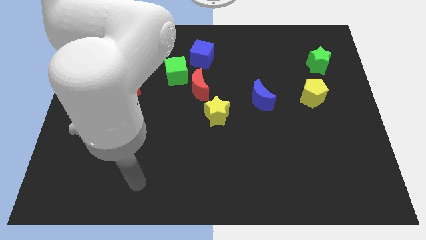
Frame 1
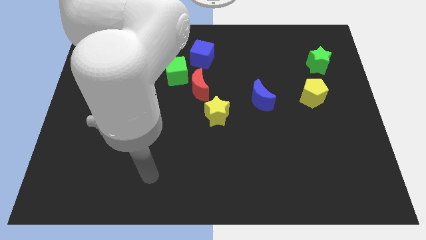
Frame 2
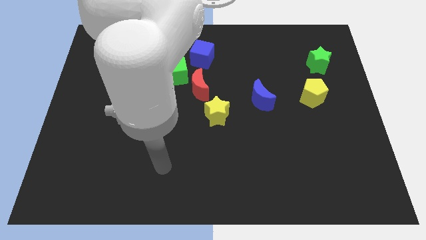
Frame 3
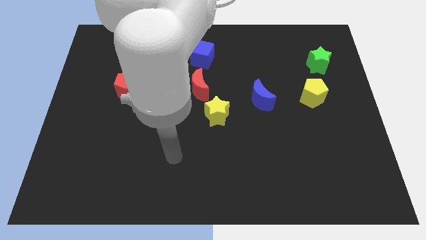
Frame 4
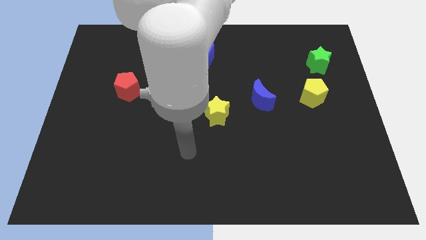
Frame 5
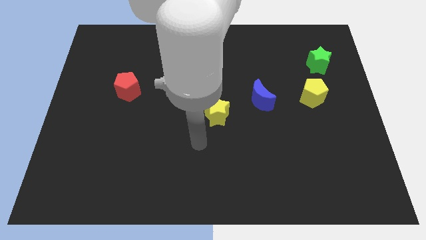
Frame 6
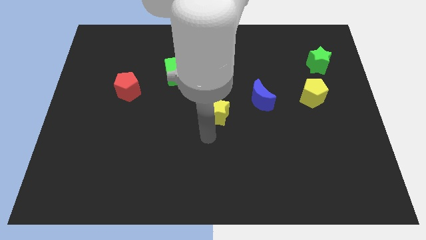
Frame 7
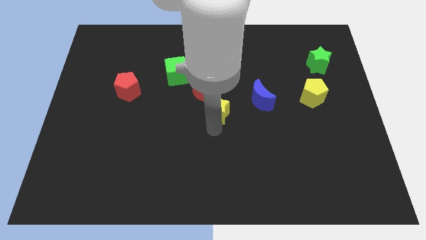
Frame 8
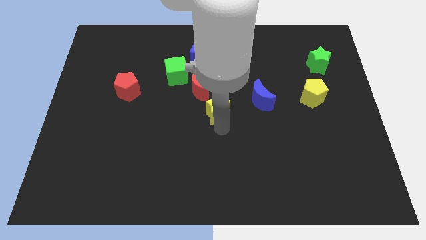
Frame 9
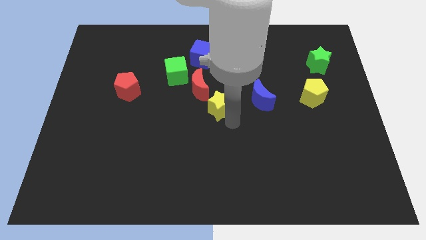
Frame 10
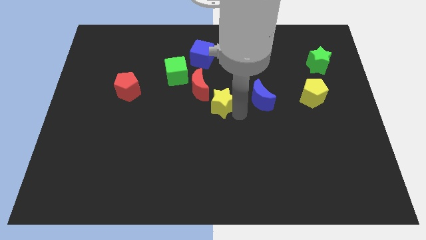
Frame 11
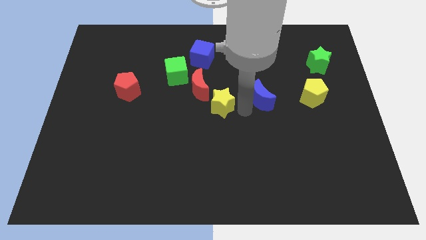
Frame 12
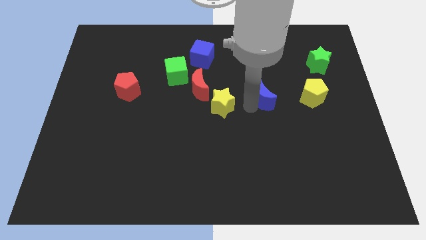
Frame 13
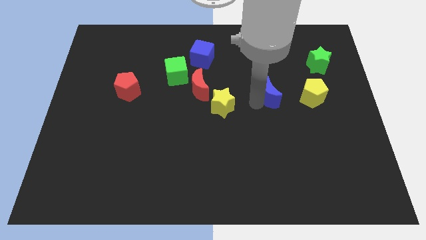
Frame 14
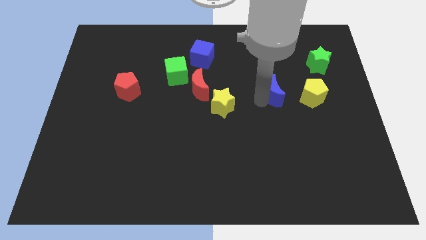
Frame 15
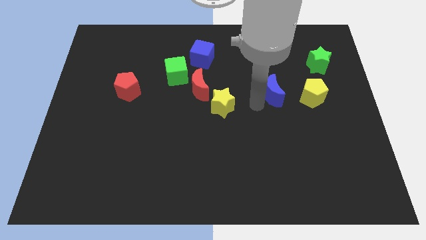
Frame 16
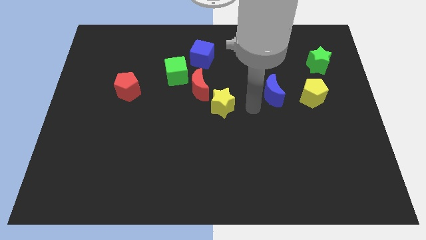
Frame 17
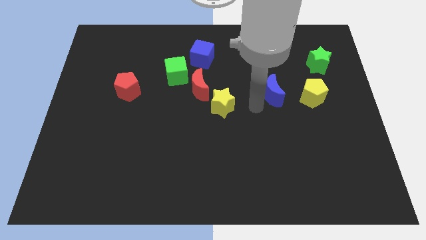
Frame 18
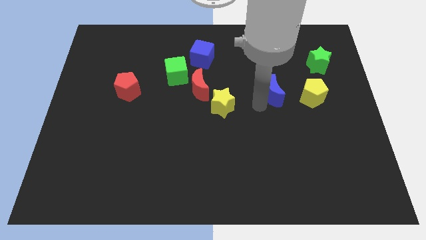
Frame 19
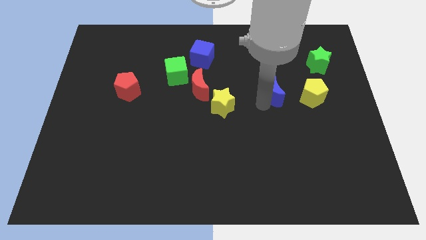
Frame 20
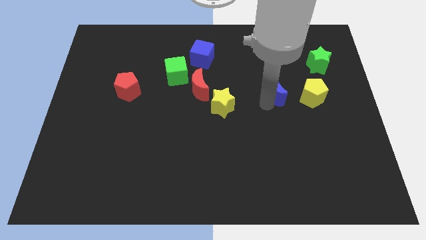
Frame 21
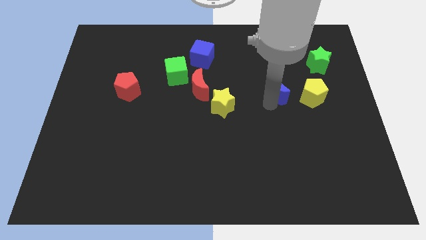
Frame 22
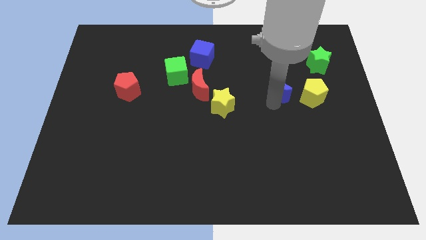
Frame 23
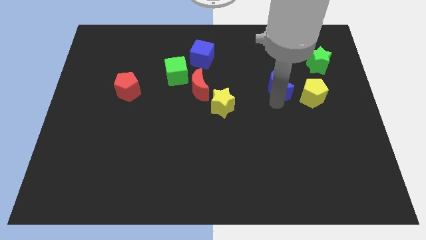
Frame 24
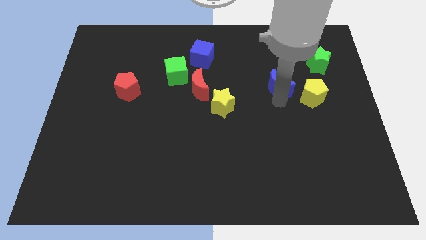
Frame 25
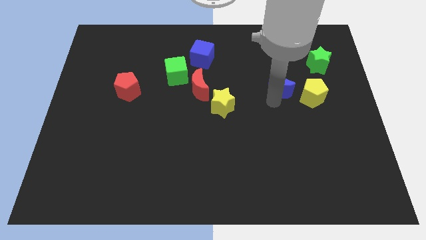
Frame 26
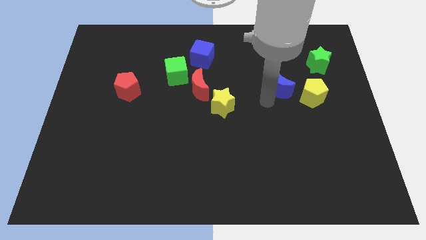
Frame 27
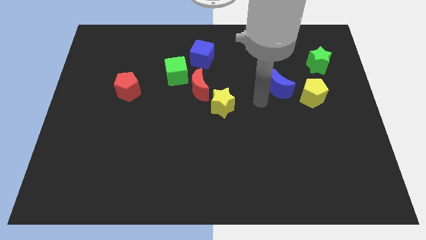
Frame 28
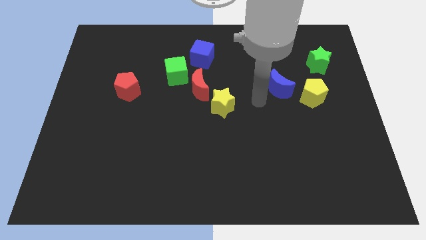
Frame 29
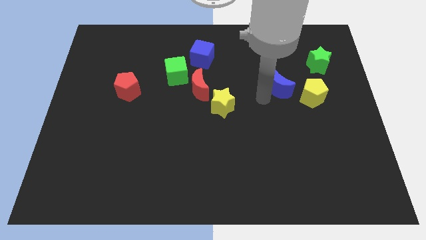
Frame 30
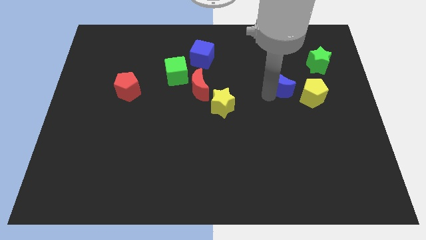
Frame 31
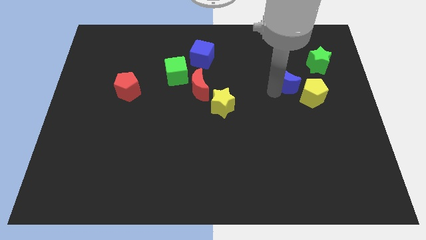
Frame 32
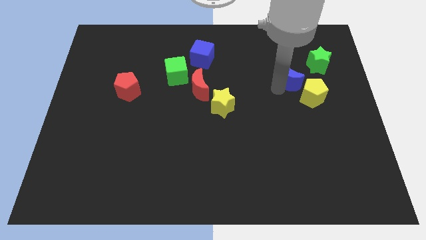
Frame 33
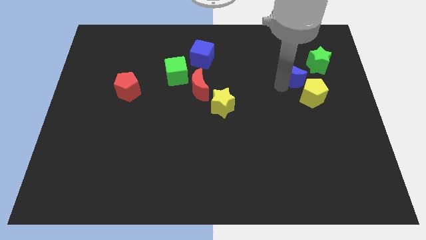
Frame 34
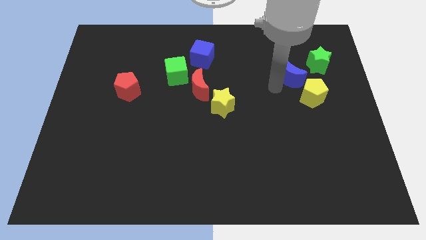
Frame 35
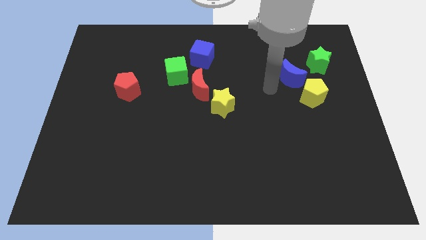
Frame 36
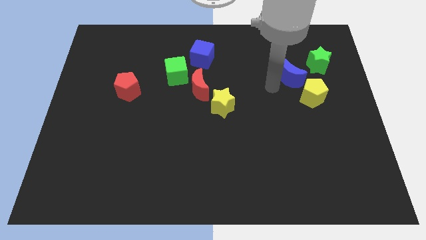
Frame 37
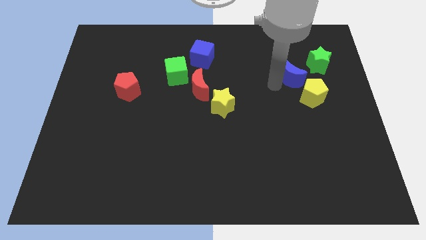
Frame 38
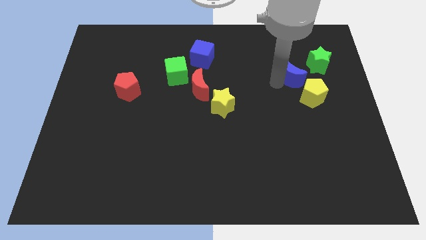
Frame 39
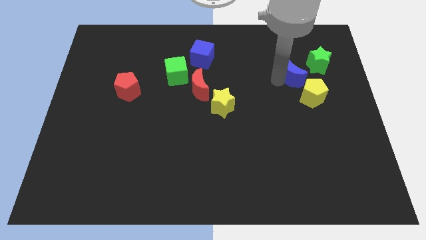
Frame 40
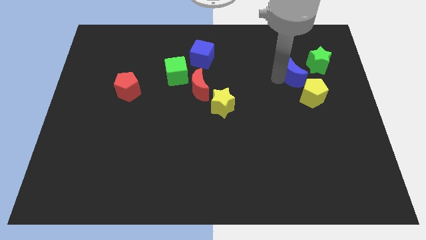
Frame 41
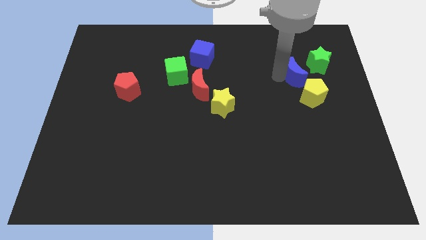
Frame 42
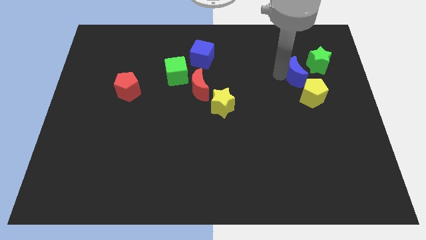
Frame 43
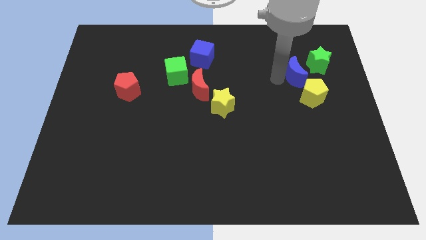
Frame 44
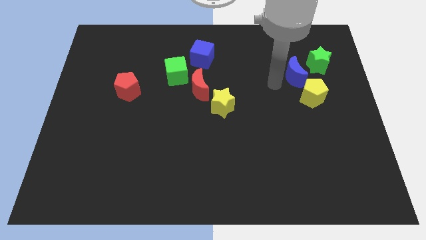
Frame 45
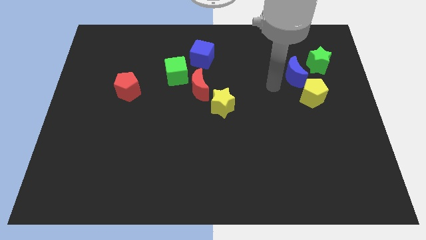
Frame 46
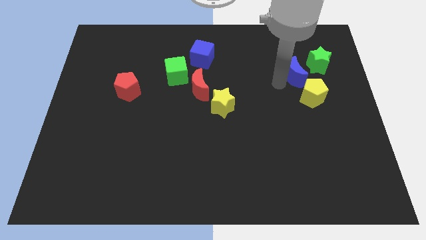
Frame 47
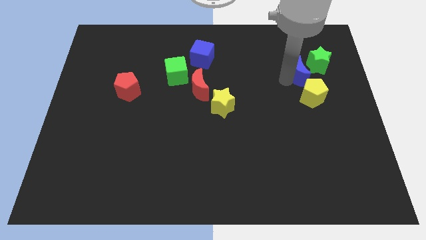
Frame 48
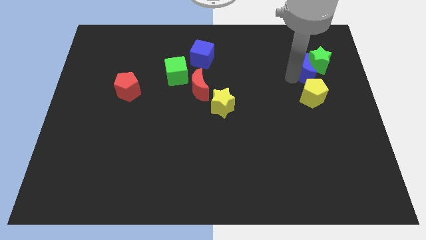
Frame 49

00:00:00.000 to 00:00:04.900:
move the blue moon to the green star

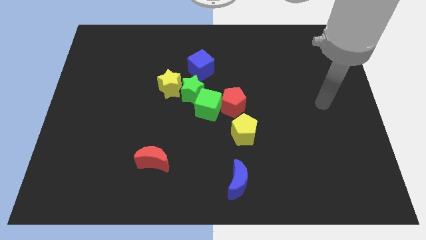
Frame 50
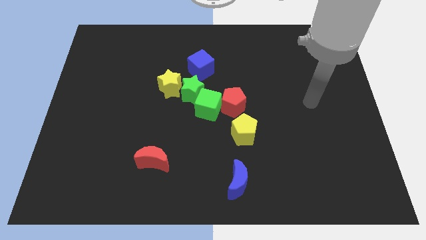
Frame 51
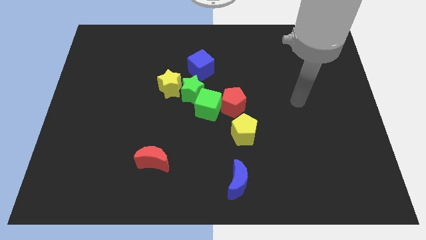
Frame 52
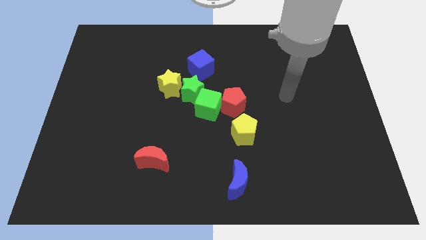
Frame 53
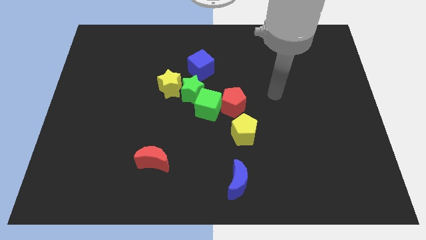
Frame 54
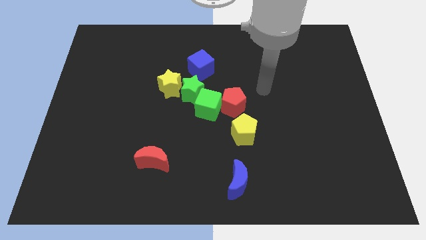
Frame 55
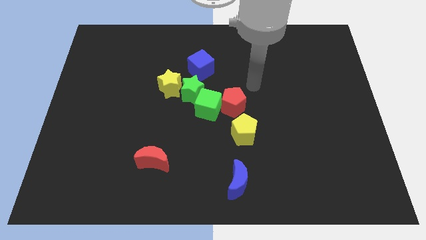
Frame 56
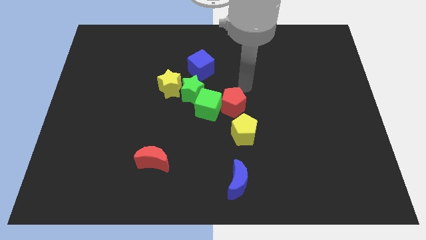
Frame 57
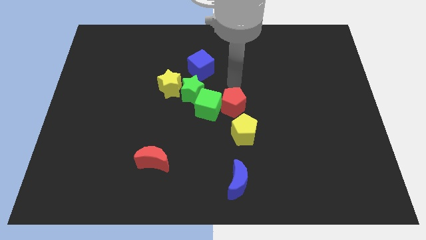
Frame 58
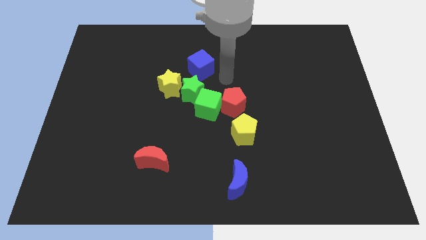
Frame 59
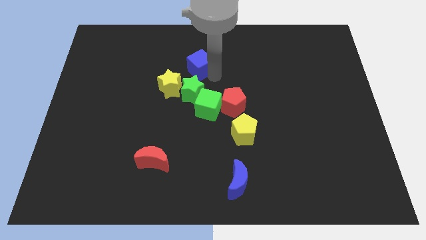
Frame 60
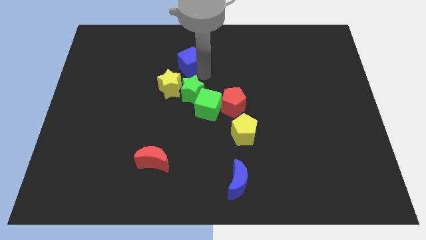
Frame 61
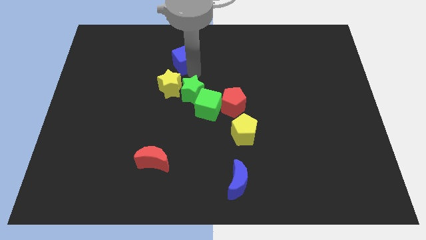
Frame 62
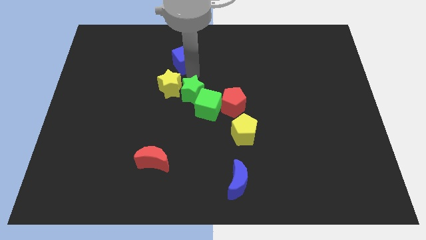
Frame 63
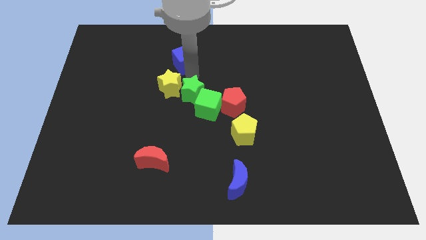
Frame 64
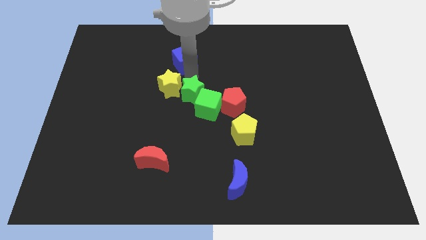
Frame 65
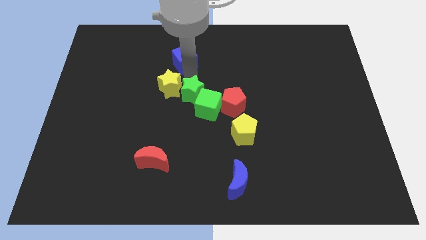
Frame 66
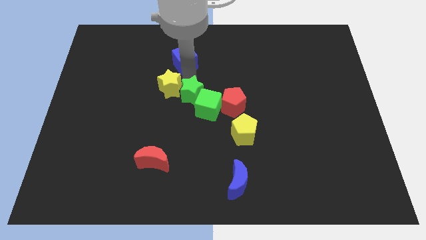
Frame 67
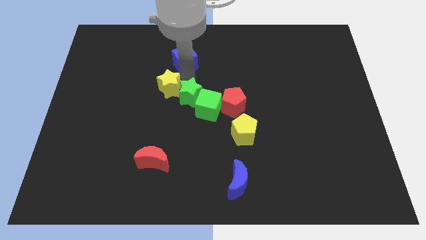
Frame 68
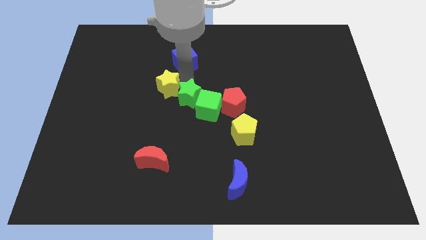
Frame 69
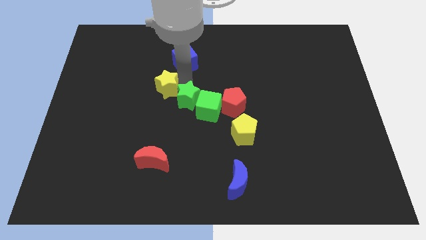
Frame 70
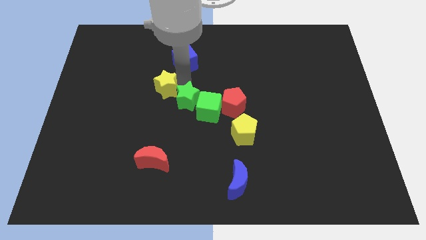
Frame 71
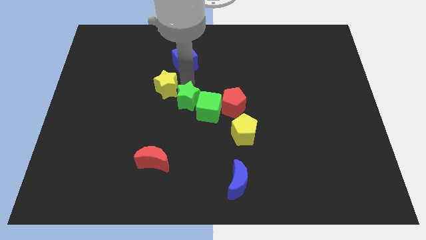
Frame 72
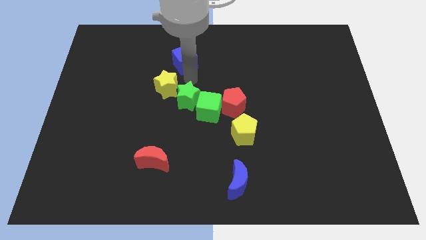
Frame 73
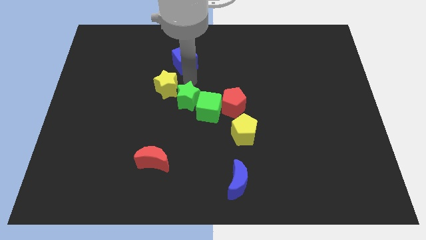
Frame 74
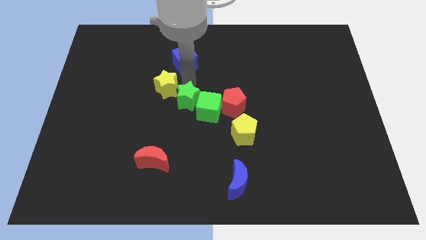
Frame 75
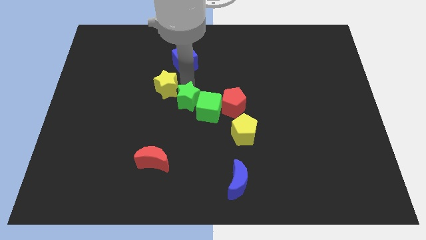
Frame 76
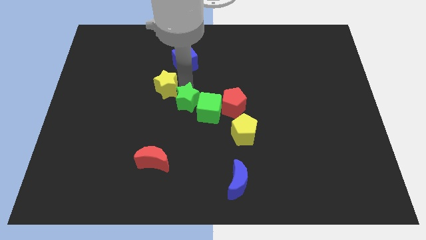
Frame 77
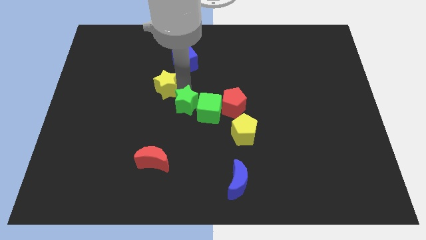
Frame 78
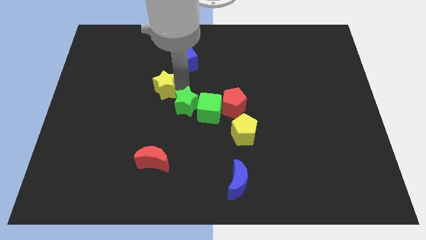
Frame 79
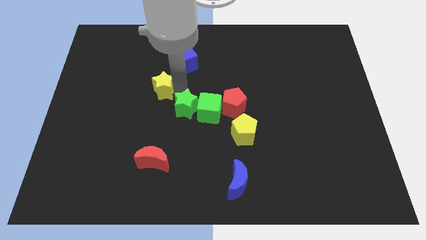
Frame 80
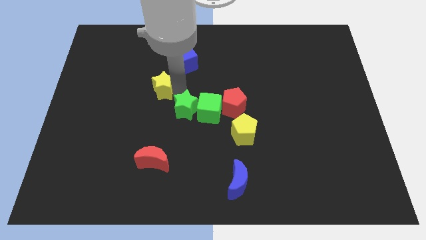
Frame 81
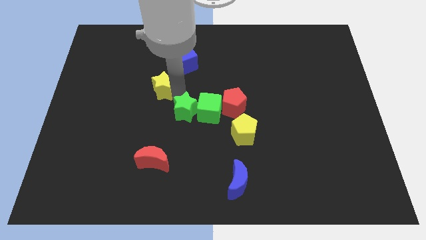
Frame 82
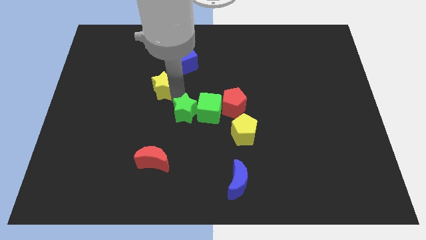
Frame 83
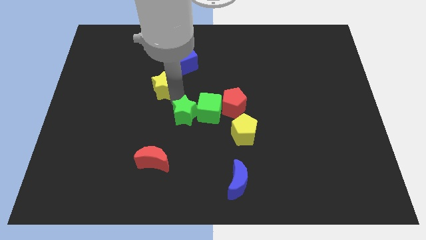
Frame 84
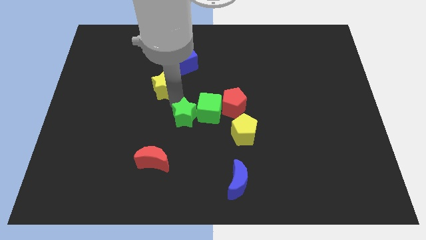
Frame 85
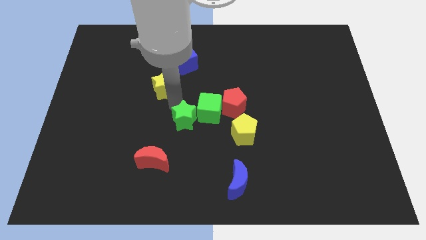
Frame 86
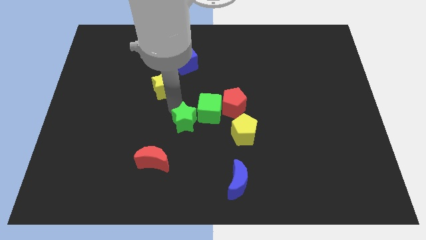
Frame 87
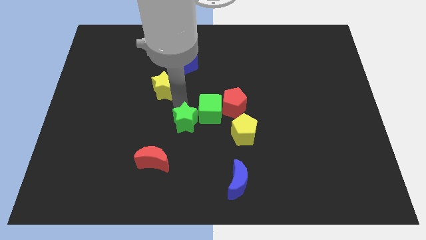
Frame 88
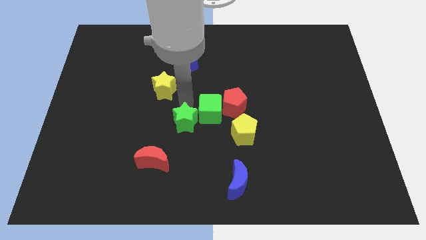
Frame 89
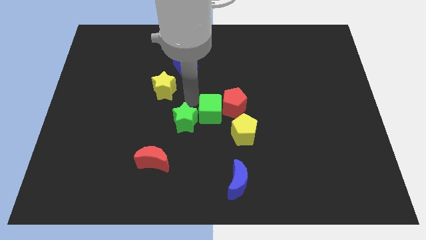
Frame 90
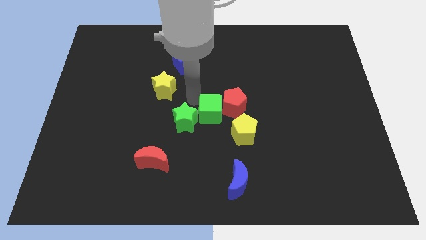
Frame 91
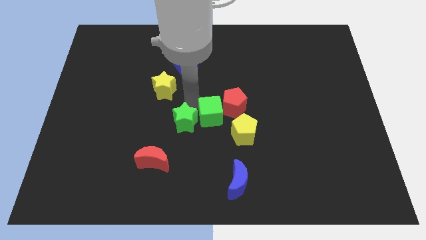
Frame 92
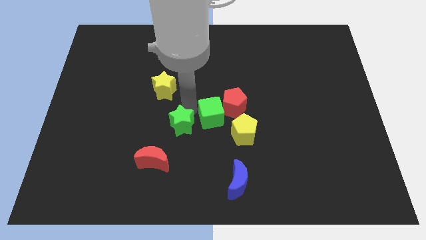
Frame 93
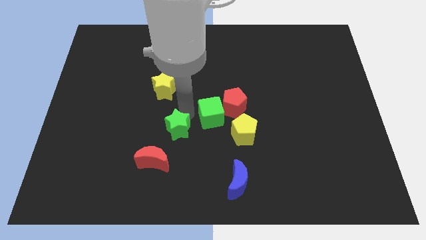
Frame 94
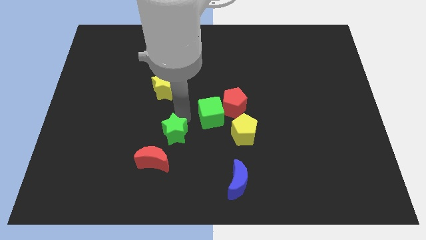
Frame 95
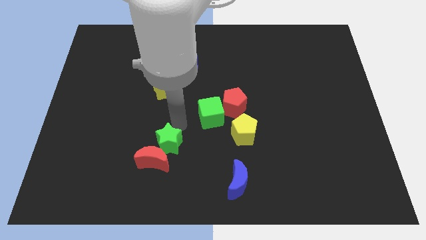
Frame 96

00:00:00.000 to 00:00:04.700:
push the green star close to the red moon
